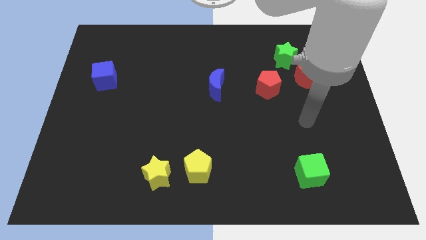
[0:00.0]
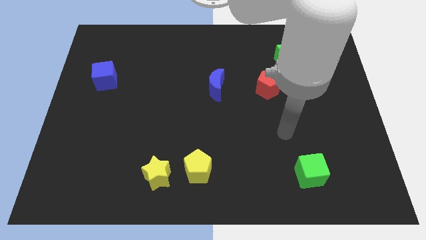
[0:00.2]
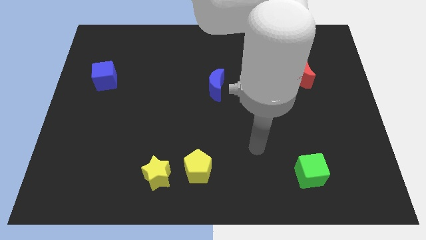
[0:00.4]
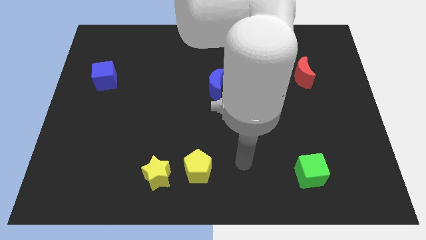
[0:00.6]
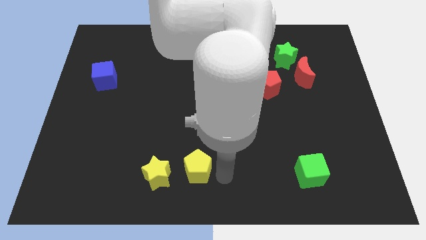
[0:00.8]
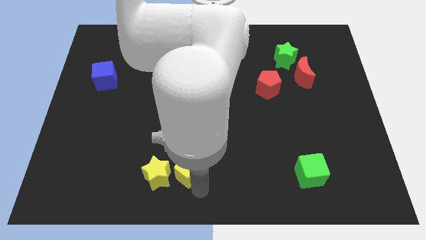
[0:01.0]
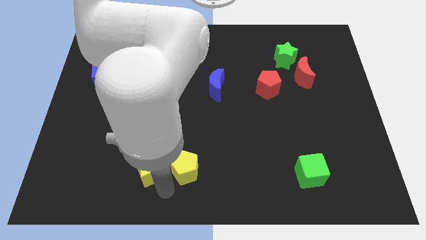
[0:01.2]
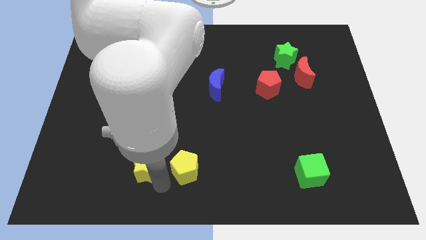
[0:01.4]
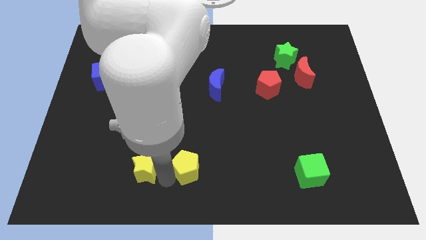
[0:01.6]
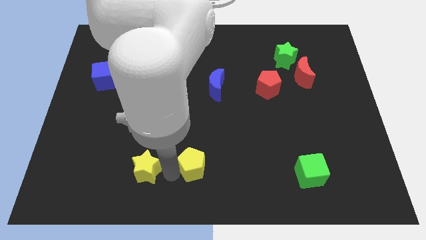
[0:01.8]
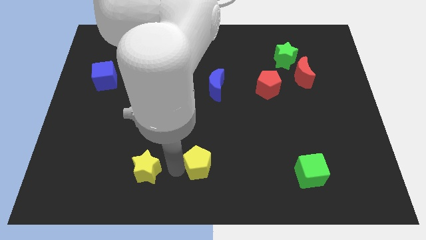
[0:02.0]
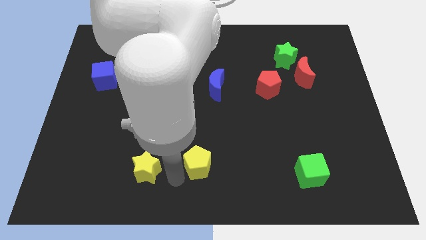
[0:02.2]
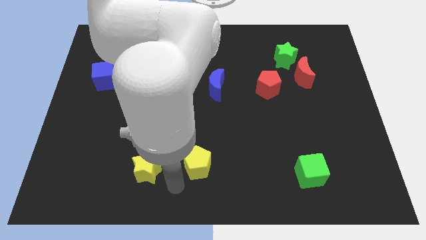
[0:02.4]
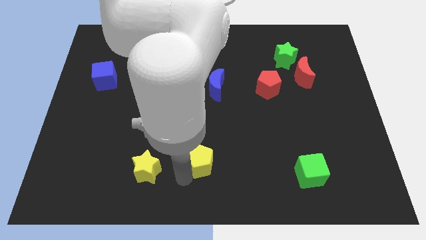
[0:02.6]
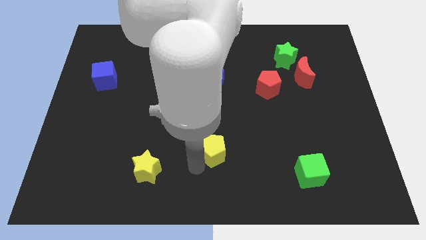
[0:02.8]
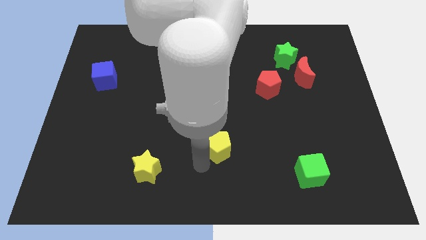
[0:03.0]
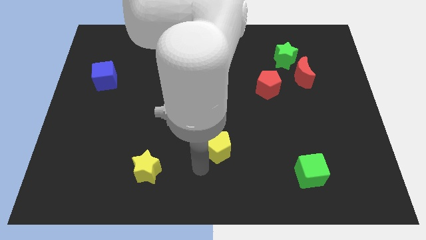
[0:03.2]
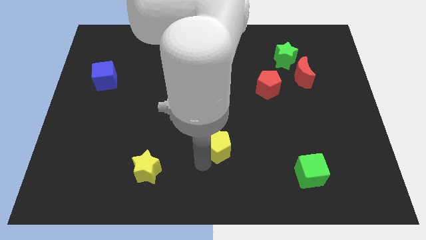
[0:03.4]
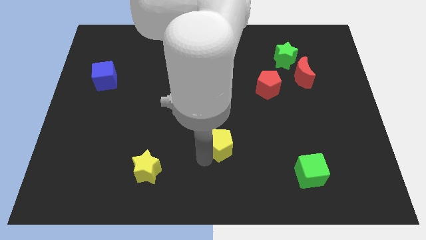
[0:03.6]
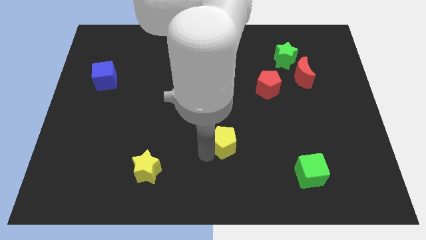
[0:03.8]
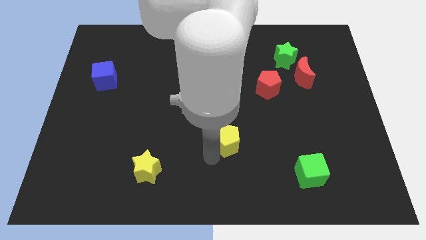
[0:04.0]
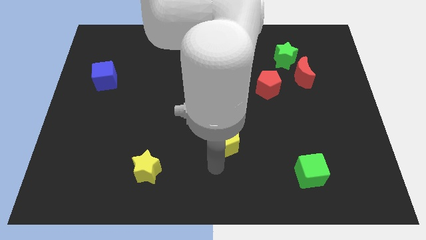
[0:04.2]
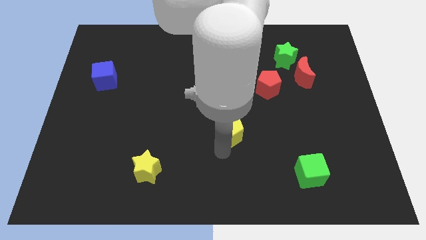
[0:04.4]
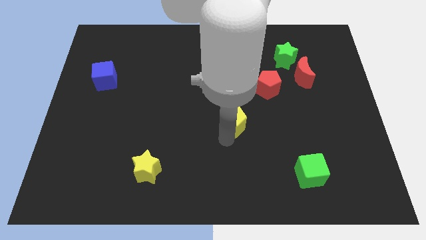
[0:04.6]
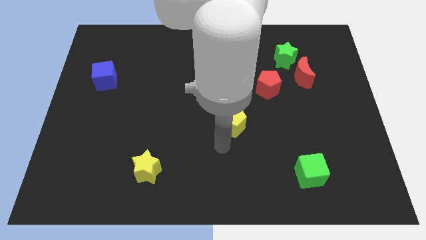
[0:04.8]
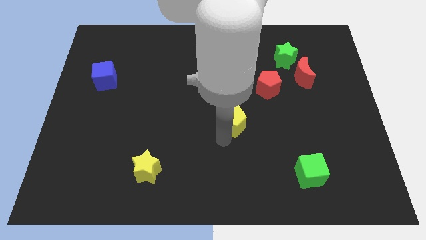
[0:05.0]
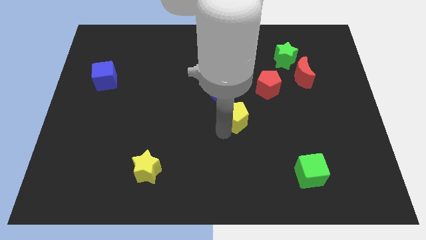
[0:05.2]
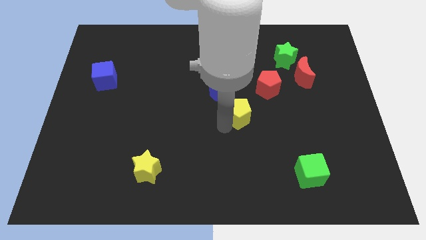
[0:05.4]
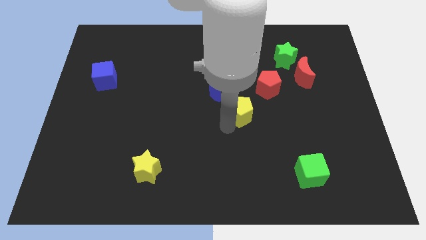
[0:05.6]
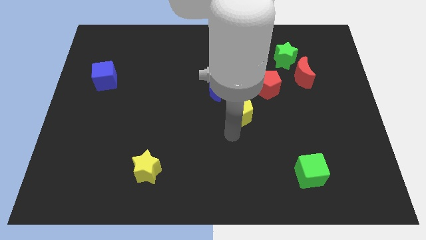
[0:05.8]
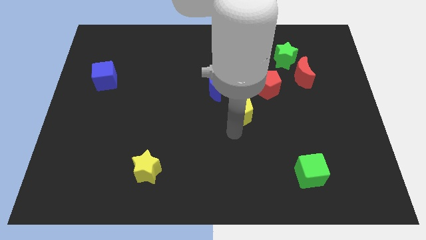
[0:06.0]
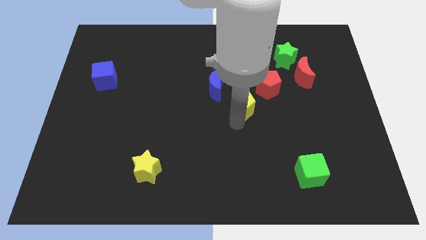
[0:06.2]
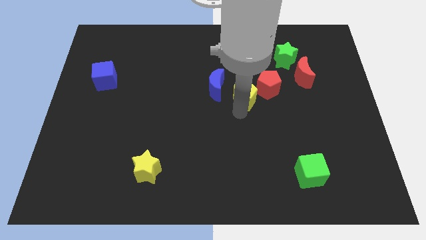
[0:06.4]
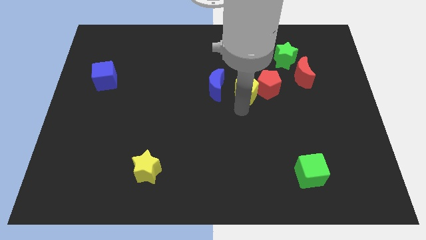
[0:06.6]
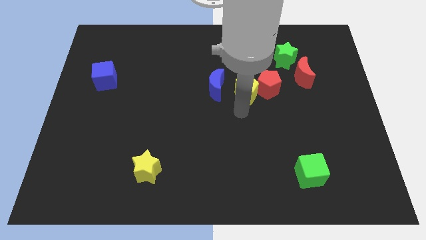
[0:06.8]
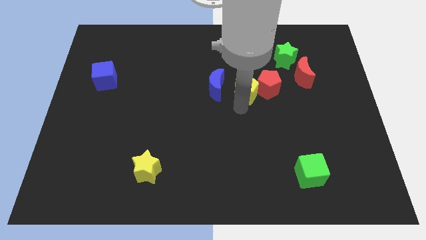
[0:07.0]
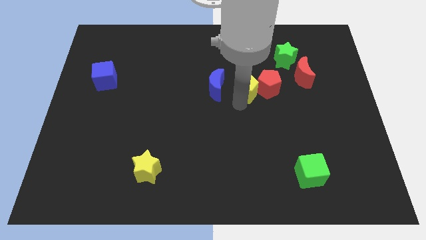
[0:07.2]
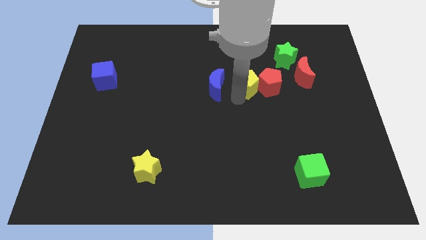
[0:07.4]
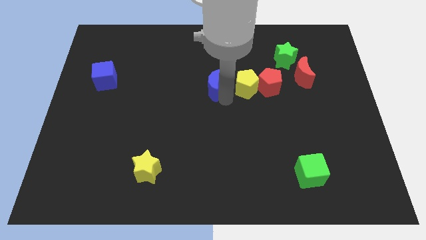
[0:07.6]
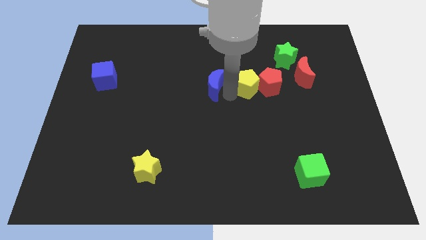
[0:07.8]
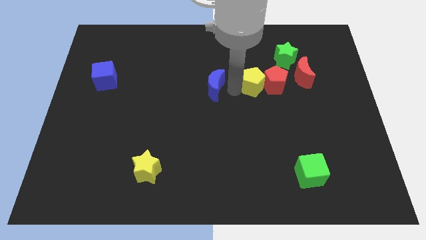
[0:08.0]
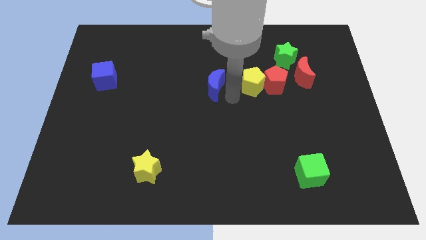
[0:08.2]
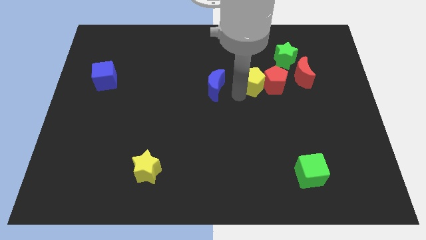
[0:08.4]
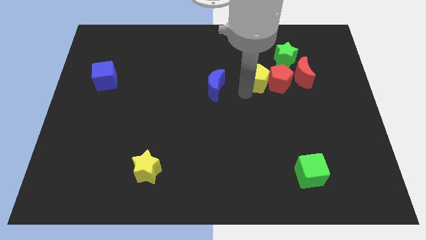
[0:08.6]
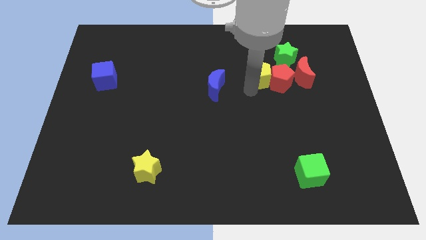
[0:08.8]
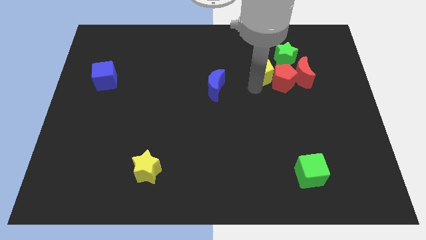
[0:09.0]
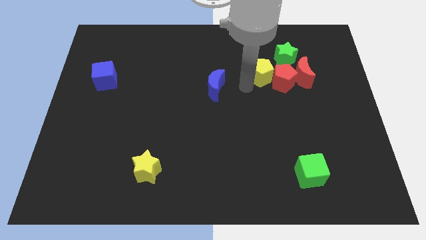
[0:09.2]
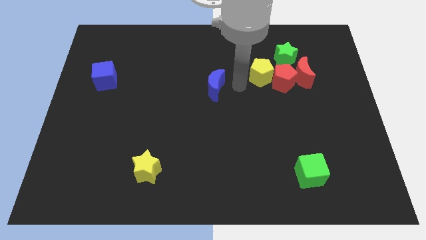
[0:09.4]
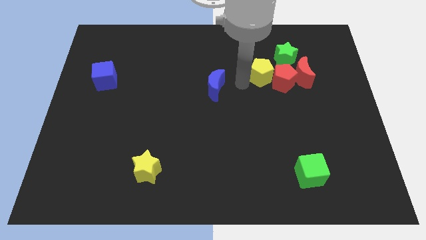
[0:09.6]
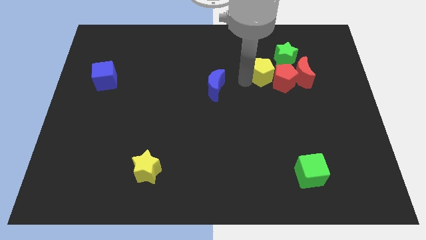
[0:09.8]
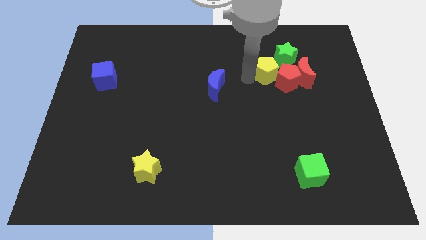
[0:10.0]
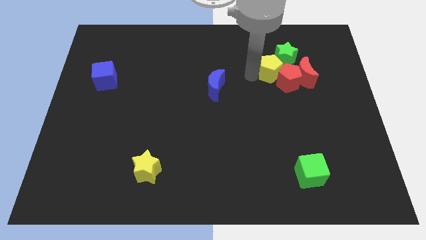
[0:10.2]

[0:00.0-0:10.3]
put the yellow pentagon close to the green star

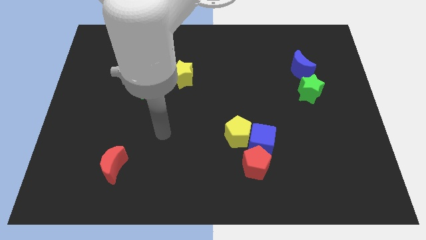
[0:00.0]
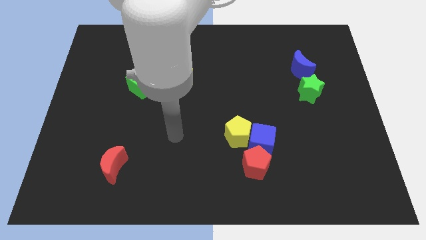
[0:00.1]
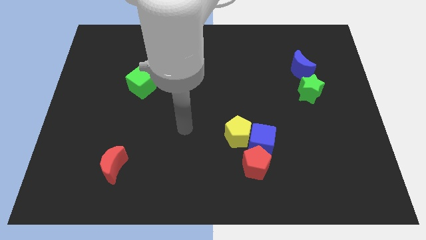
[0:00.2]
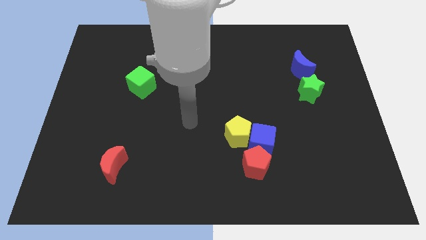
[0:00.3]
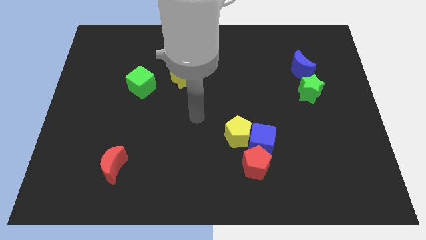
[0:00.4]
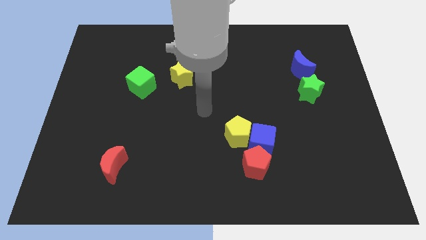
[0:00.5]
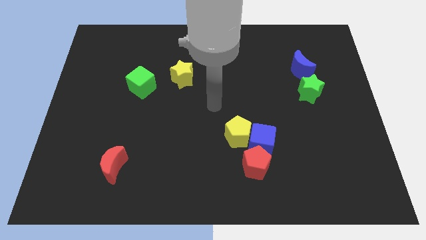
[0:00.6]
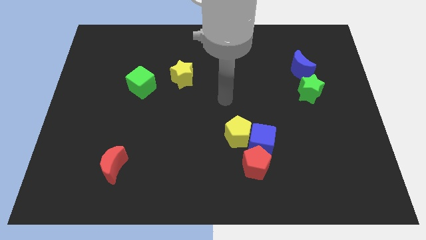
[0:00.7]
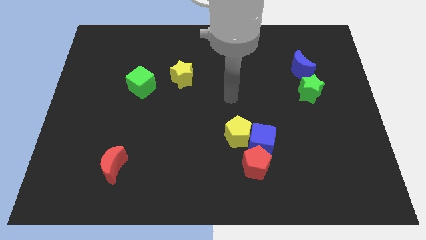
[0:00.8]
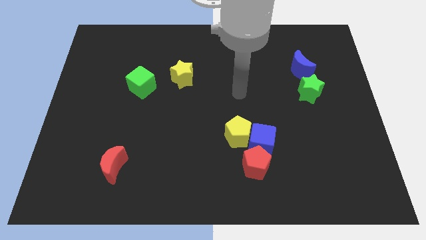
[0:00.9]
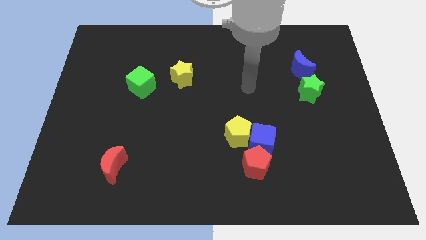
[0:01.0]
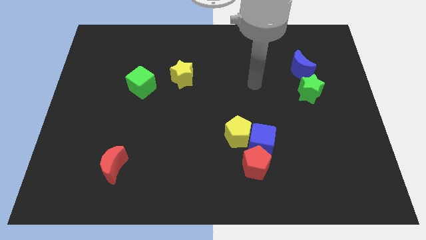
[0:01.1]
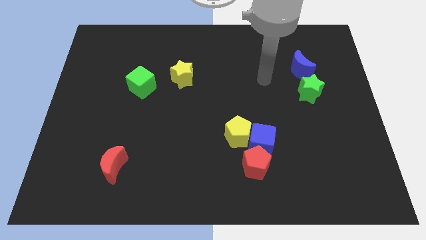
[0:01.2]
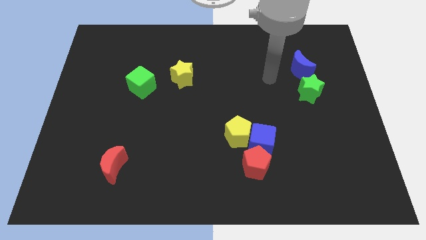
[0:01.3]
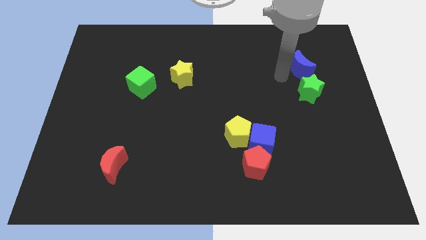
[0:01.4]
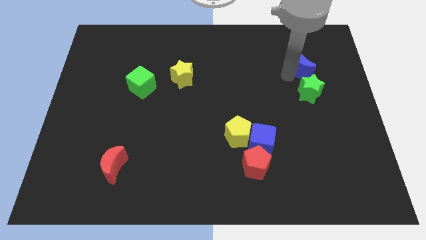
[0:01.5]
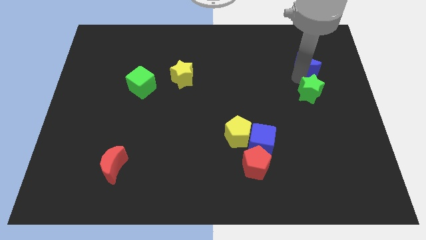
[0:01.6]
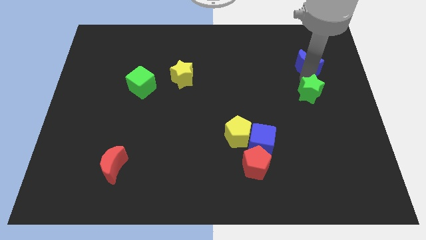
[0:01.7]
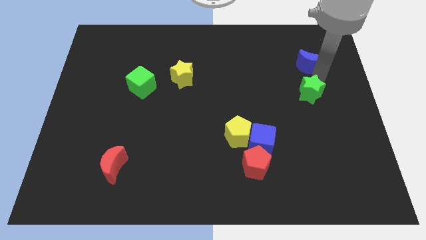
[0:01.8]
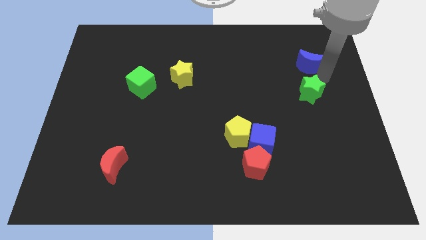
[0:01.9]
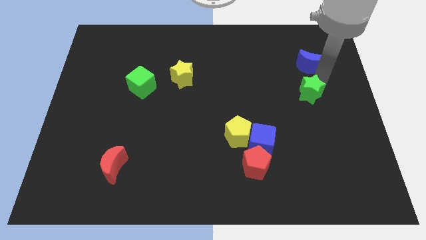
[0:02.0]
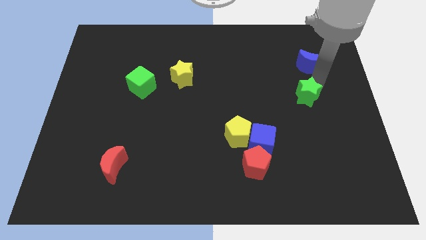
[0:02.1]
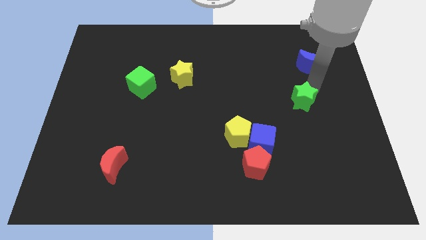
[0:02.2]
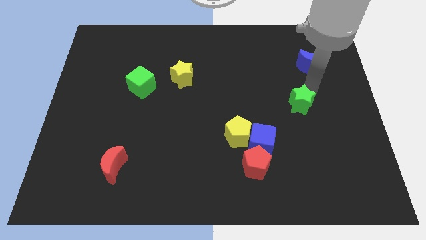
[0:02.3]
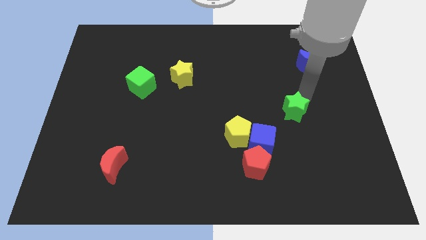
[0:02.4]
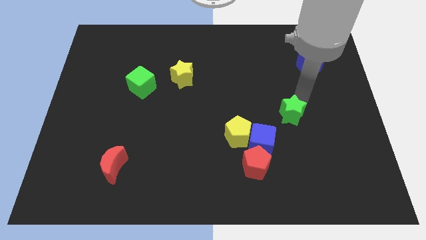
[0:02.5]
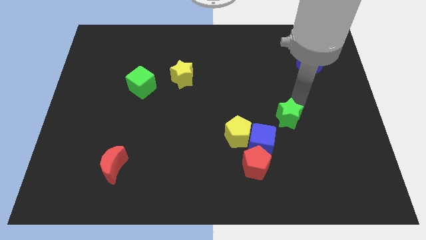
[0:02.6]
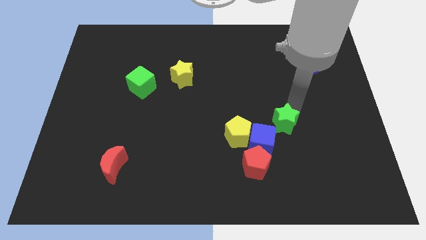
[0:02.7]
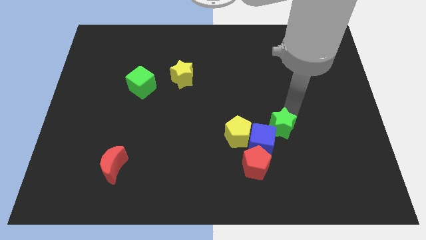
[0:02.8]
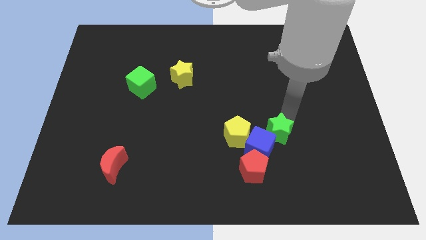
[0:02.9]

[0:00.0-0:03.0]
put the green star towards the blue cube
